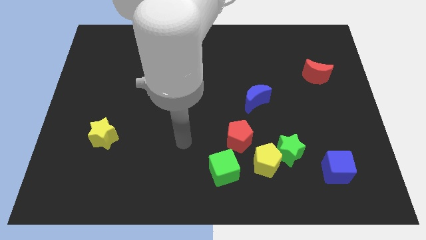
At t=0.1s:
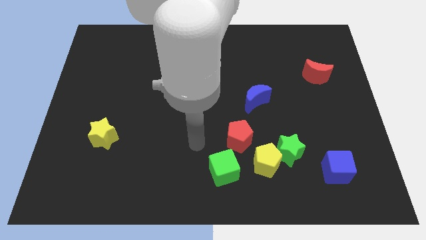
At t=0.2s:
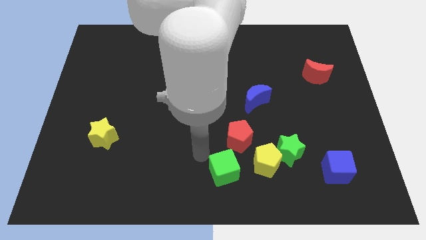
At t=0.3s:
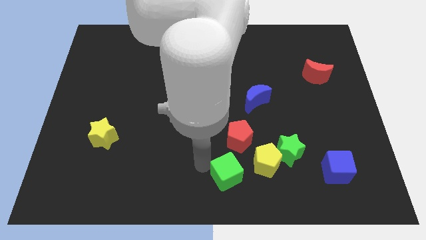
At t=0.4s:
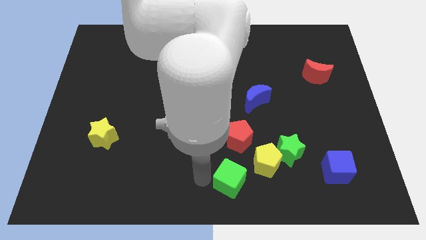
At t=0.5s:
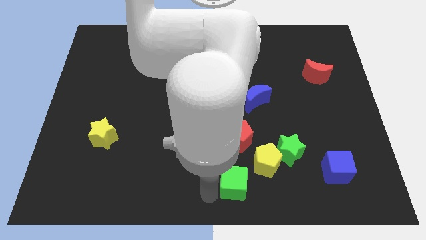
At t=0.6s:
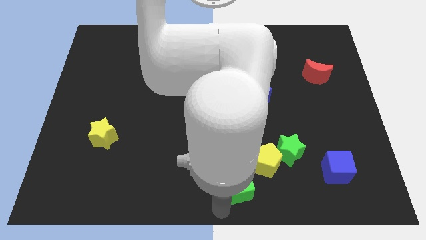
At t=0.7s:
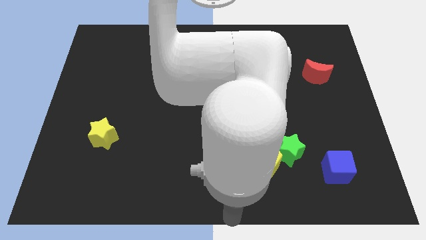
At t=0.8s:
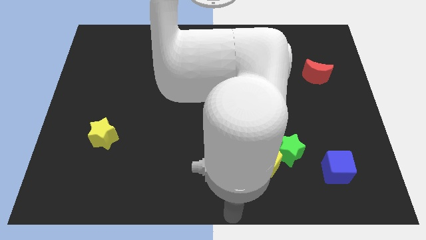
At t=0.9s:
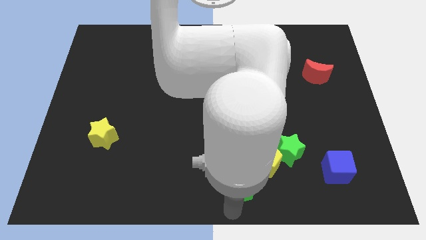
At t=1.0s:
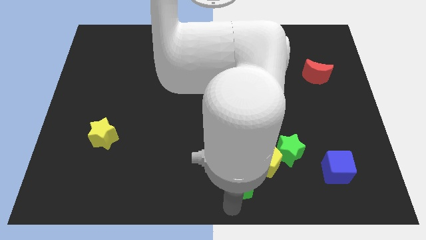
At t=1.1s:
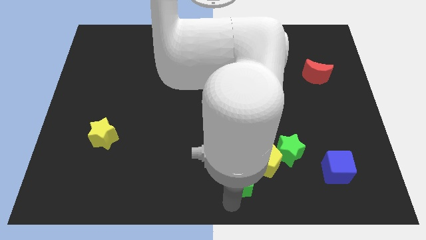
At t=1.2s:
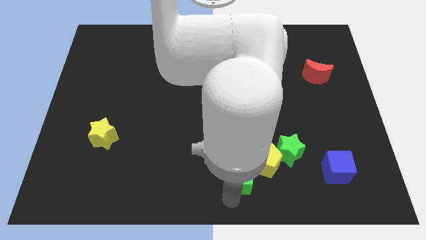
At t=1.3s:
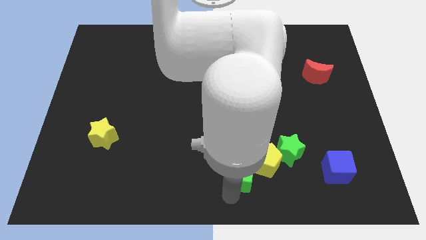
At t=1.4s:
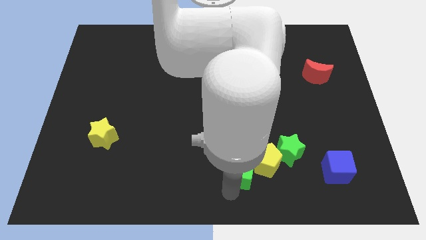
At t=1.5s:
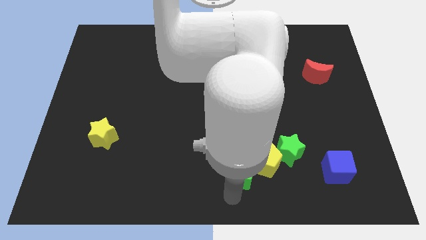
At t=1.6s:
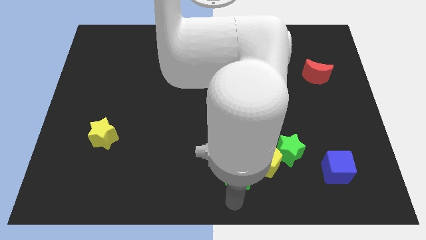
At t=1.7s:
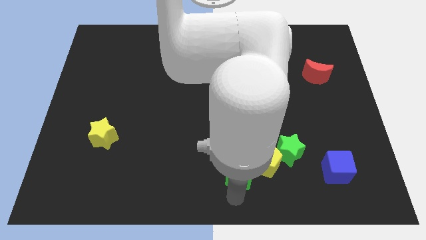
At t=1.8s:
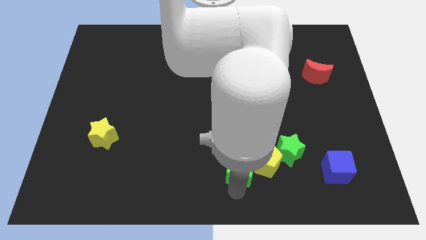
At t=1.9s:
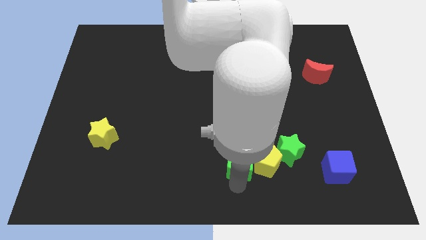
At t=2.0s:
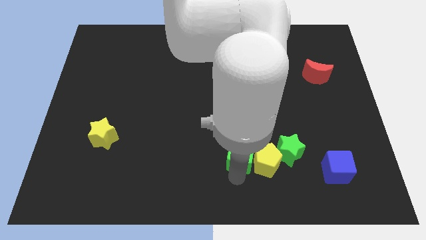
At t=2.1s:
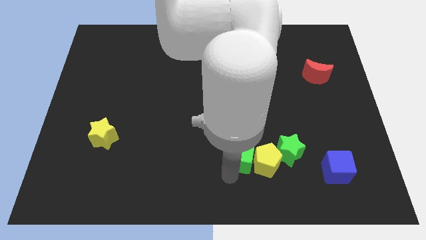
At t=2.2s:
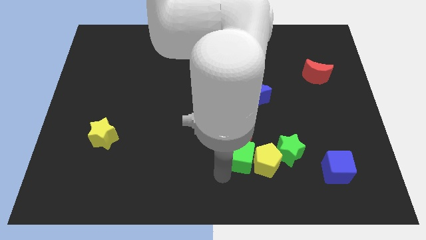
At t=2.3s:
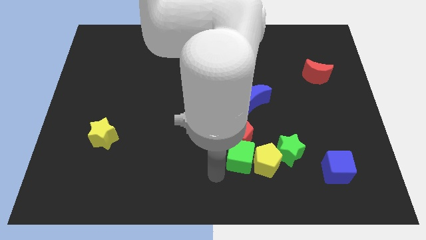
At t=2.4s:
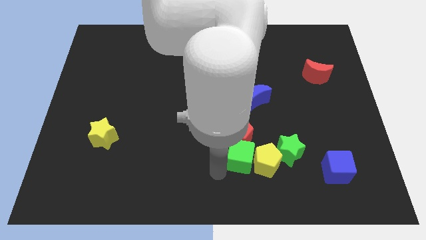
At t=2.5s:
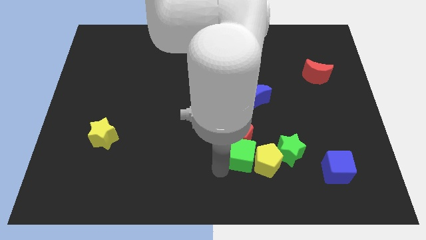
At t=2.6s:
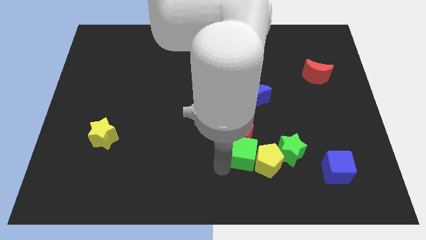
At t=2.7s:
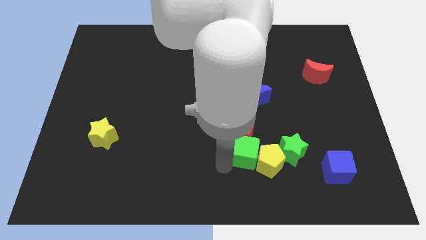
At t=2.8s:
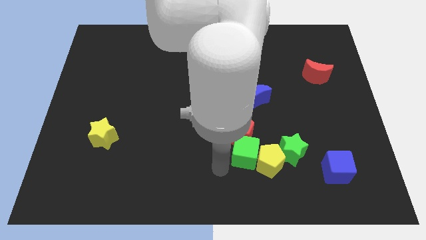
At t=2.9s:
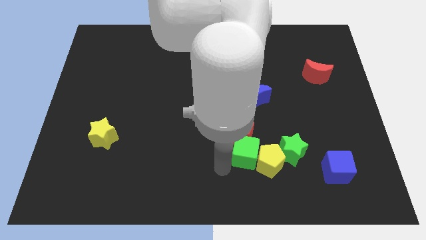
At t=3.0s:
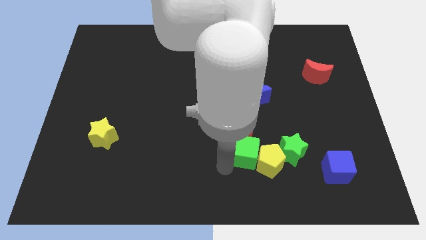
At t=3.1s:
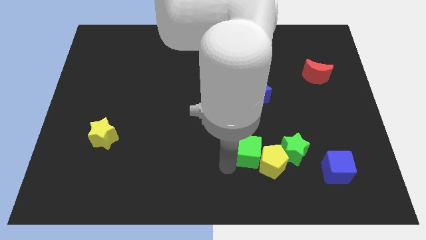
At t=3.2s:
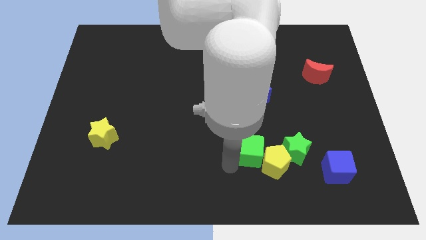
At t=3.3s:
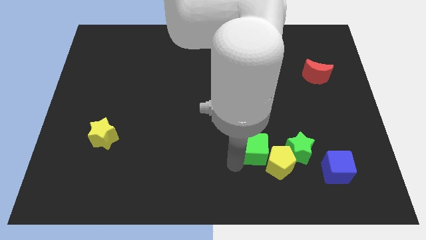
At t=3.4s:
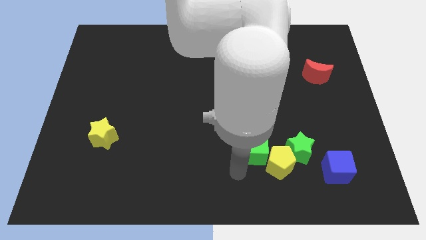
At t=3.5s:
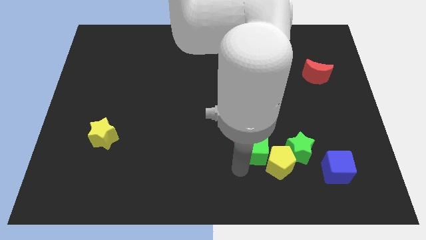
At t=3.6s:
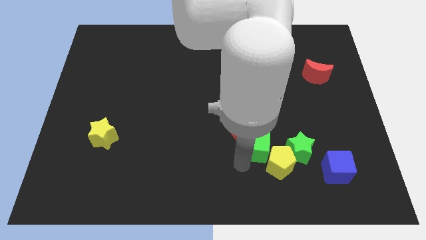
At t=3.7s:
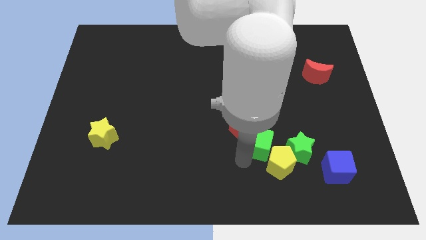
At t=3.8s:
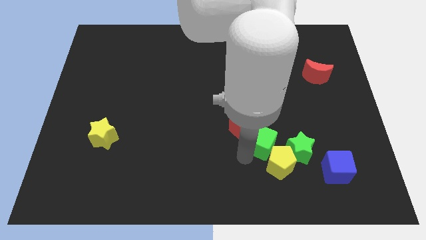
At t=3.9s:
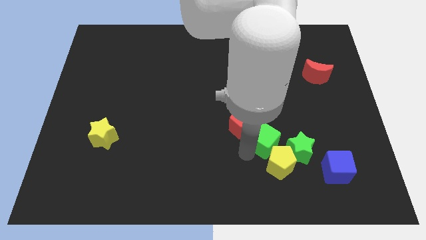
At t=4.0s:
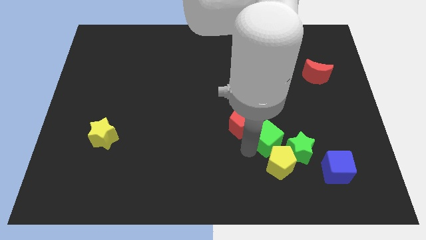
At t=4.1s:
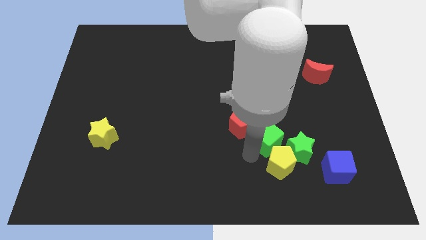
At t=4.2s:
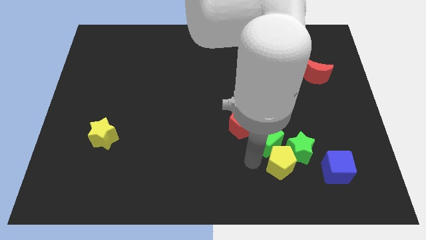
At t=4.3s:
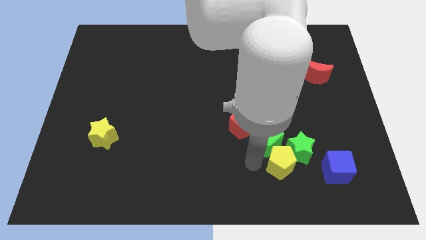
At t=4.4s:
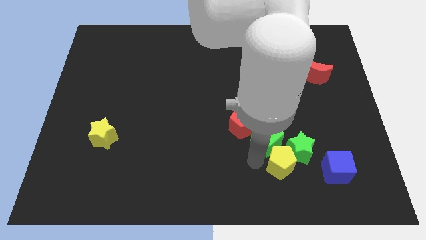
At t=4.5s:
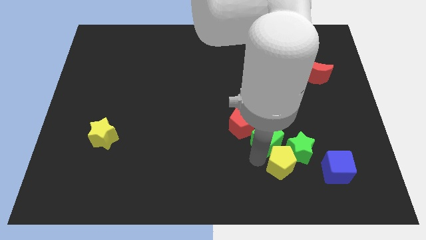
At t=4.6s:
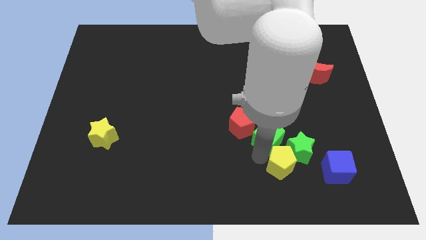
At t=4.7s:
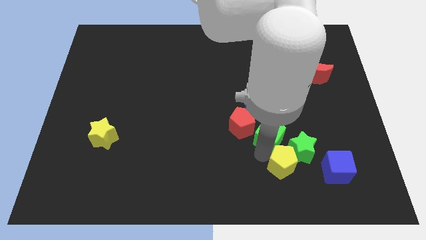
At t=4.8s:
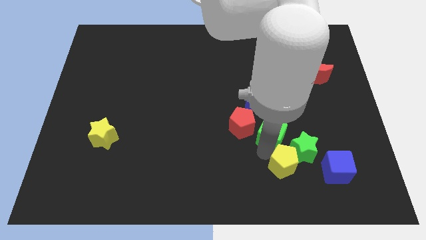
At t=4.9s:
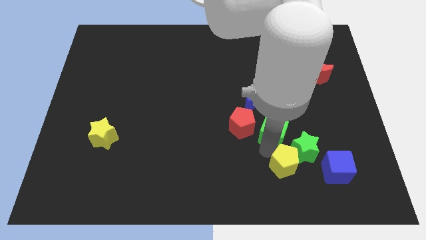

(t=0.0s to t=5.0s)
slide the green cube diagonally down and to the right of the blue moon

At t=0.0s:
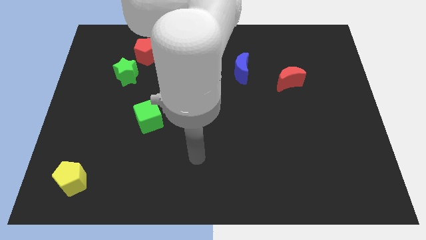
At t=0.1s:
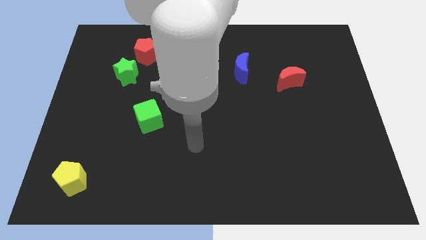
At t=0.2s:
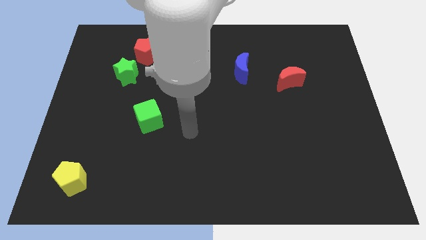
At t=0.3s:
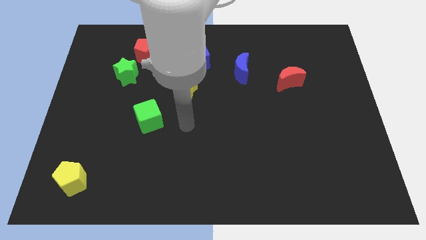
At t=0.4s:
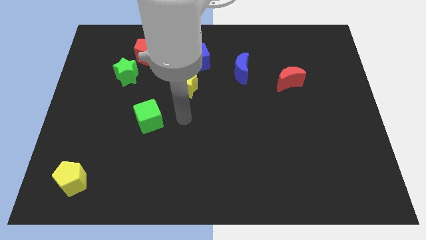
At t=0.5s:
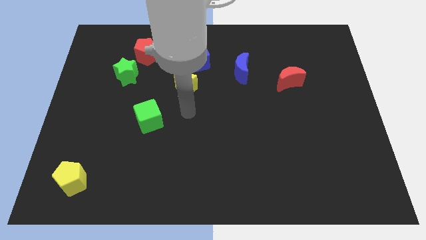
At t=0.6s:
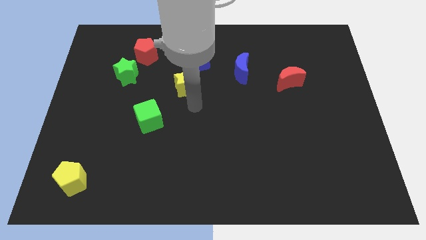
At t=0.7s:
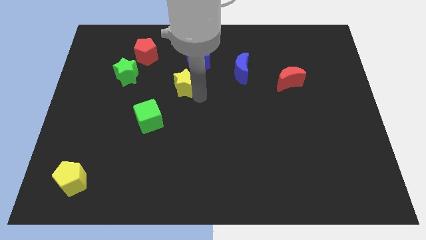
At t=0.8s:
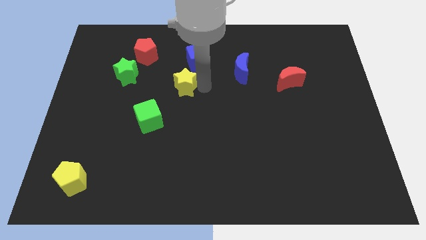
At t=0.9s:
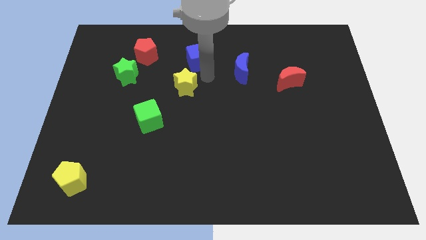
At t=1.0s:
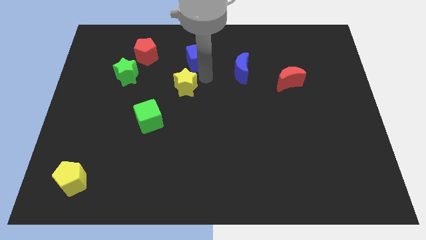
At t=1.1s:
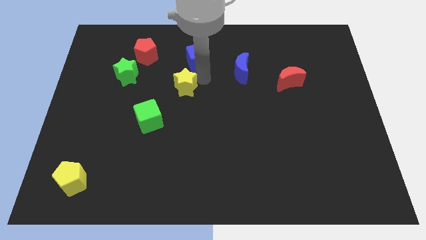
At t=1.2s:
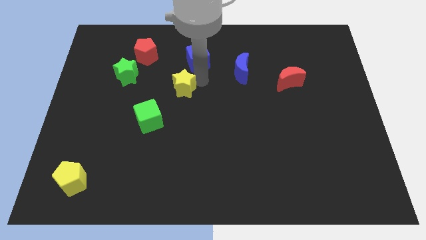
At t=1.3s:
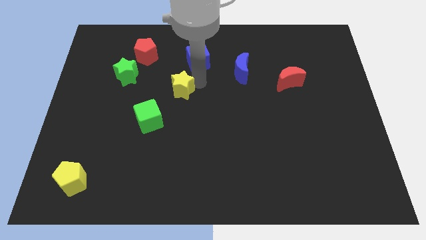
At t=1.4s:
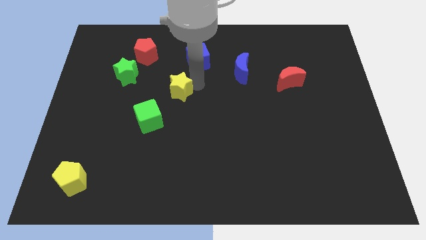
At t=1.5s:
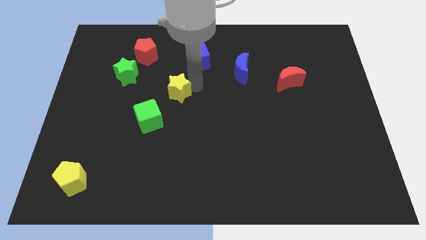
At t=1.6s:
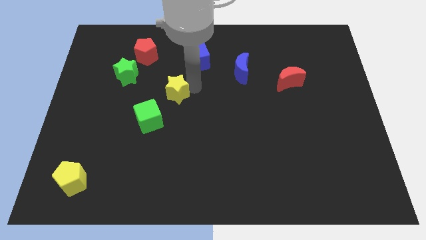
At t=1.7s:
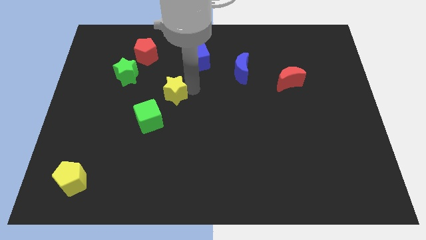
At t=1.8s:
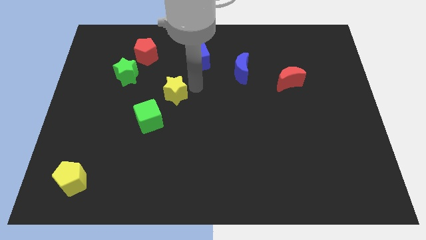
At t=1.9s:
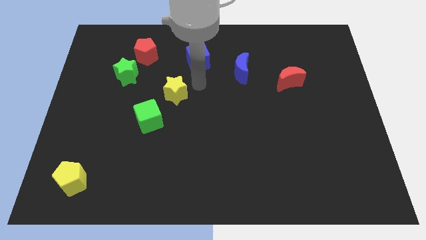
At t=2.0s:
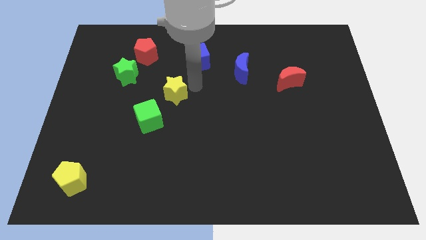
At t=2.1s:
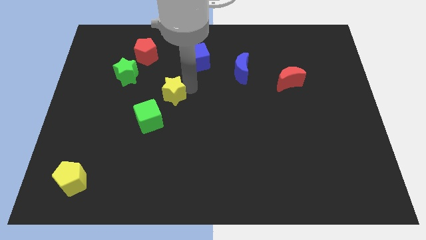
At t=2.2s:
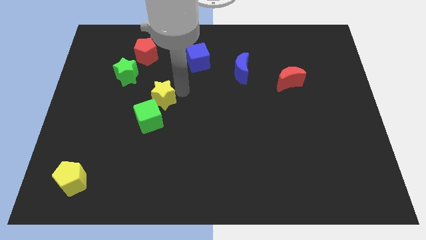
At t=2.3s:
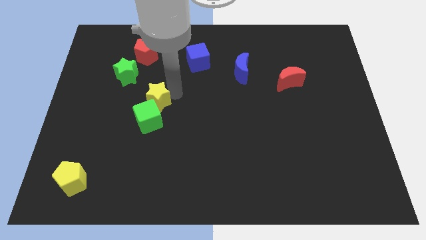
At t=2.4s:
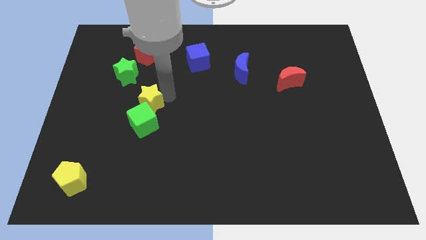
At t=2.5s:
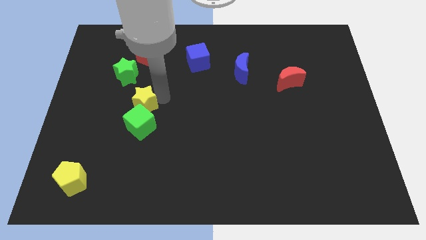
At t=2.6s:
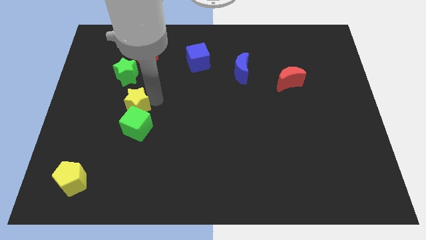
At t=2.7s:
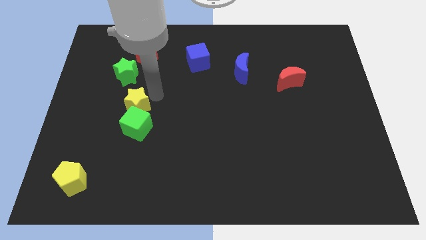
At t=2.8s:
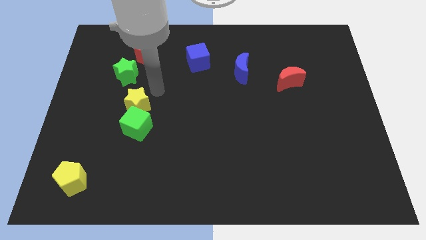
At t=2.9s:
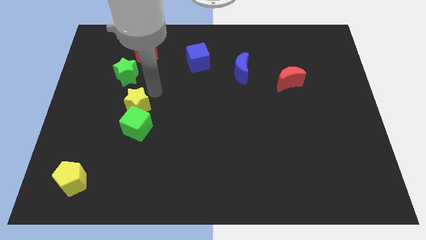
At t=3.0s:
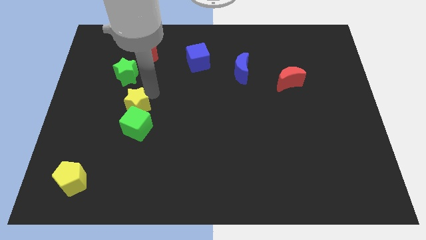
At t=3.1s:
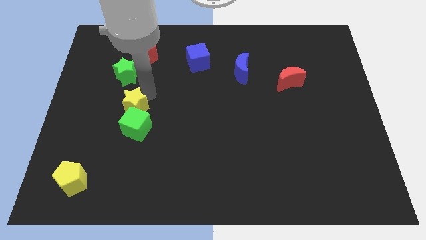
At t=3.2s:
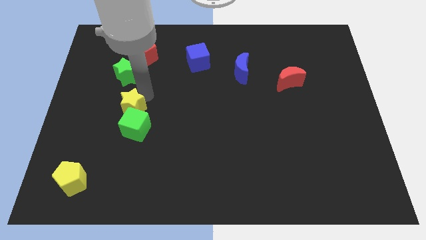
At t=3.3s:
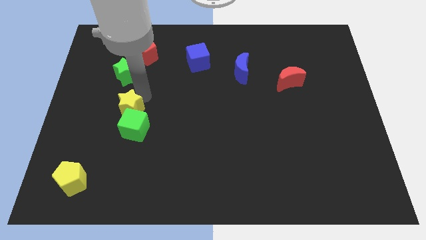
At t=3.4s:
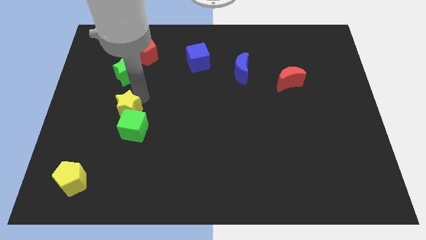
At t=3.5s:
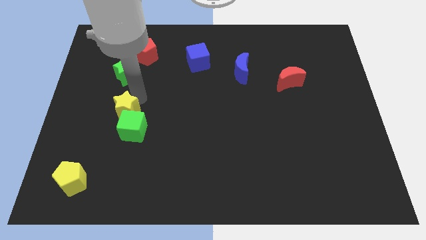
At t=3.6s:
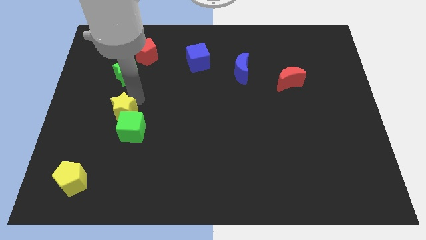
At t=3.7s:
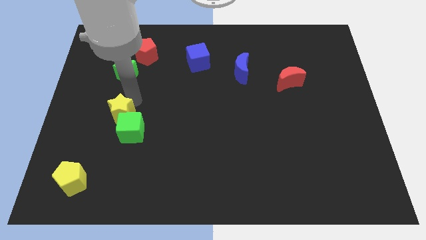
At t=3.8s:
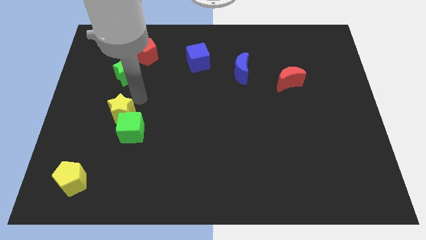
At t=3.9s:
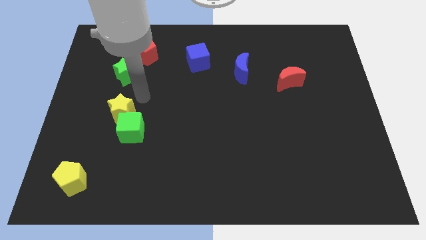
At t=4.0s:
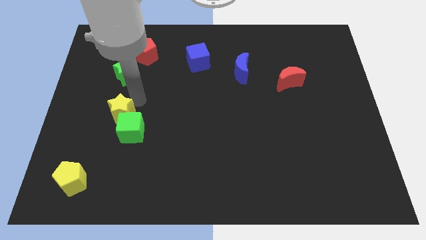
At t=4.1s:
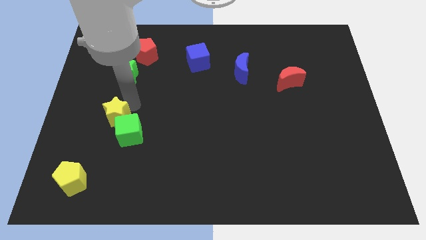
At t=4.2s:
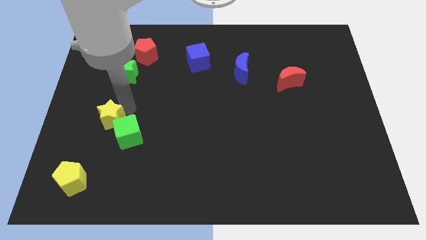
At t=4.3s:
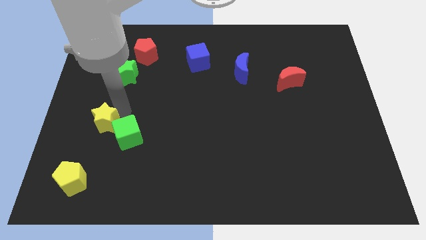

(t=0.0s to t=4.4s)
slide the yellow star above the yellow pentagon
